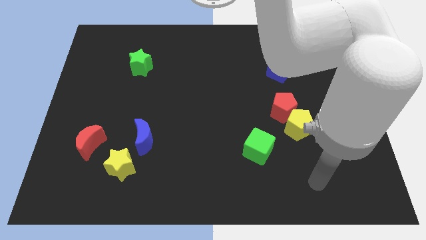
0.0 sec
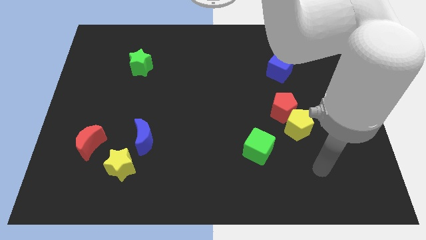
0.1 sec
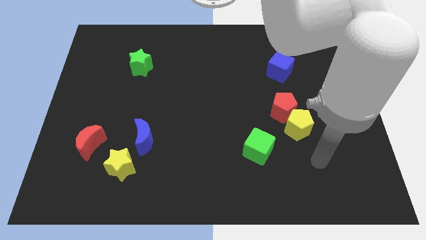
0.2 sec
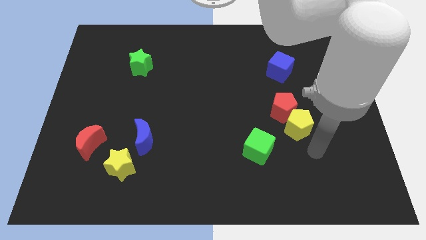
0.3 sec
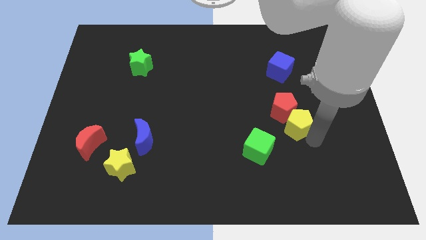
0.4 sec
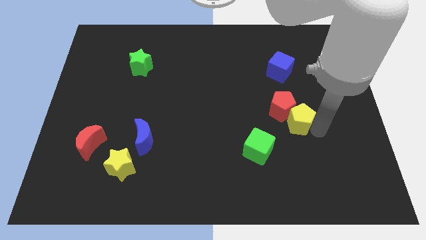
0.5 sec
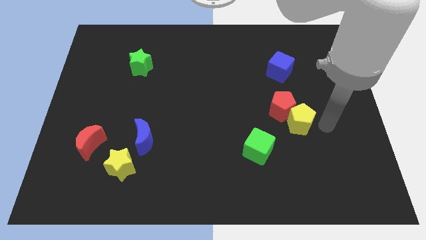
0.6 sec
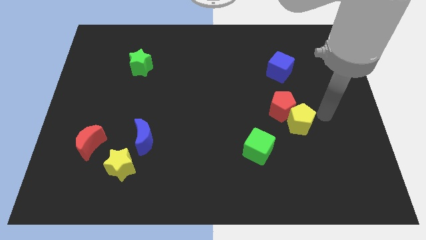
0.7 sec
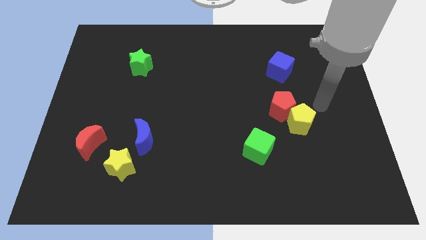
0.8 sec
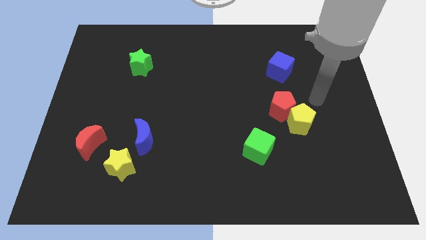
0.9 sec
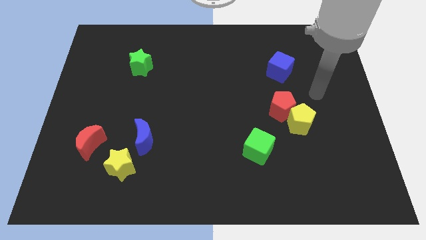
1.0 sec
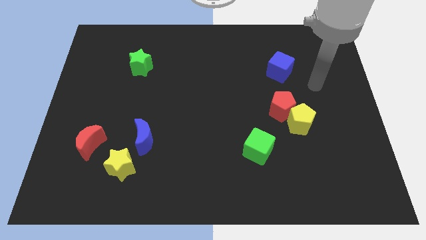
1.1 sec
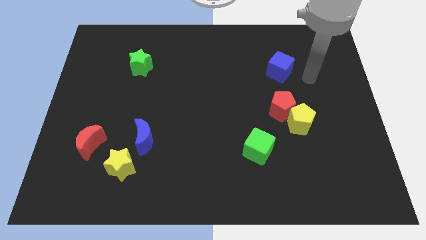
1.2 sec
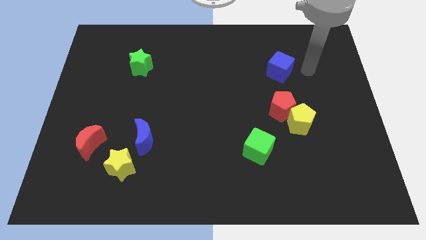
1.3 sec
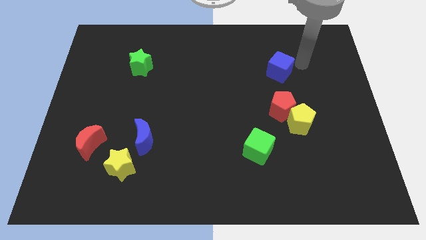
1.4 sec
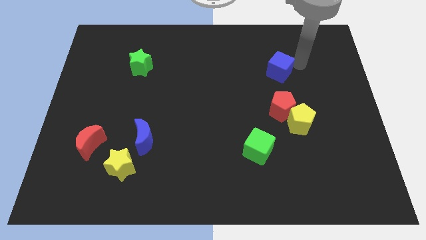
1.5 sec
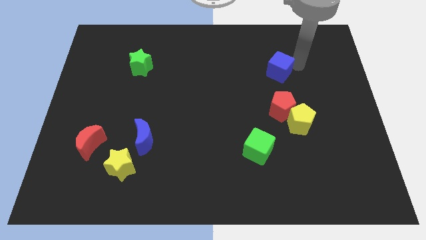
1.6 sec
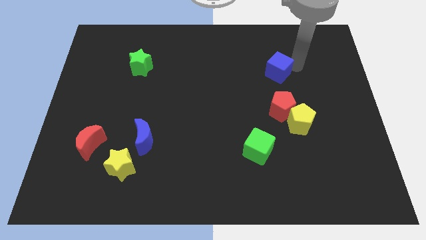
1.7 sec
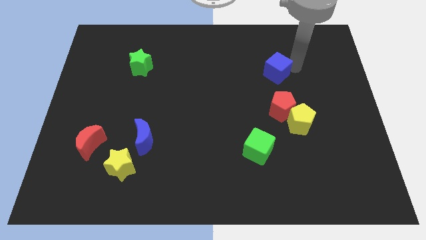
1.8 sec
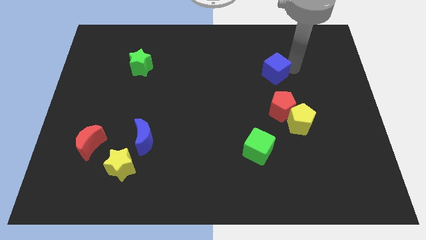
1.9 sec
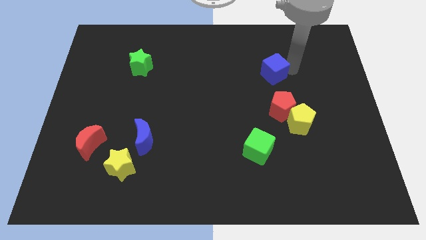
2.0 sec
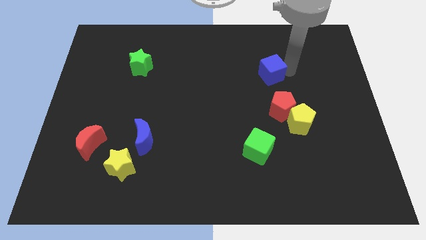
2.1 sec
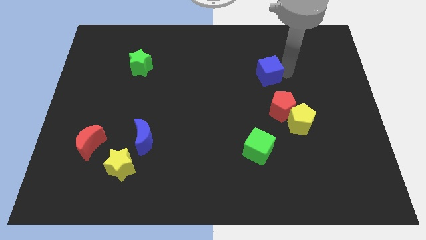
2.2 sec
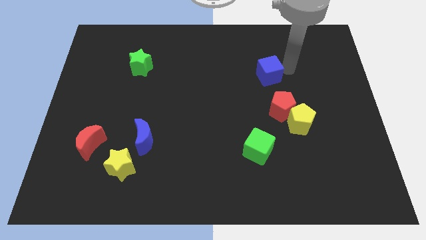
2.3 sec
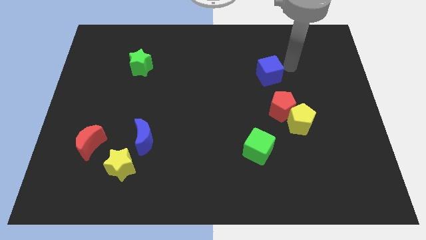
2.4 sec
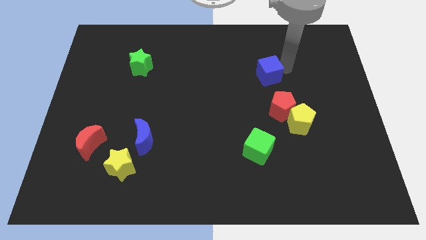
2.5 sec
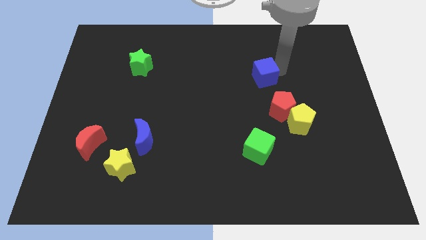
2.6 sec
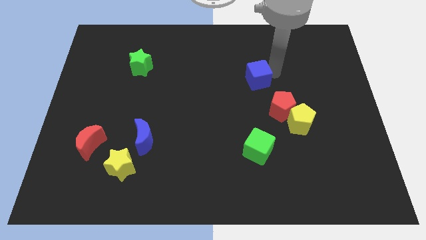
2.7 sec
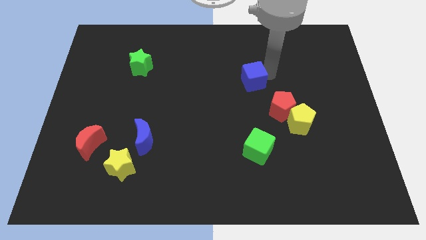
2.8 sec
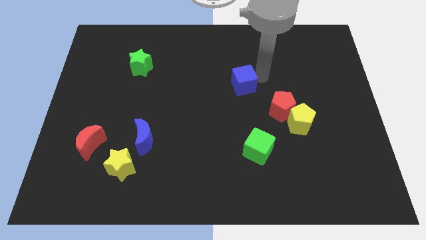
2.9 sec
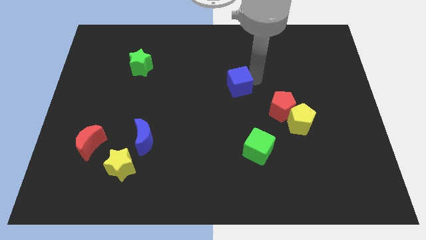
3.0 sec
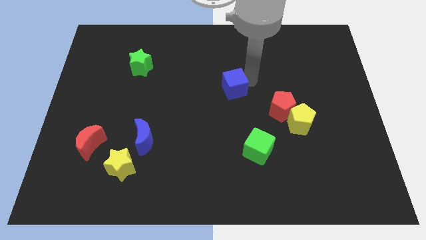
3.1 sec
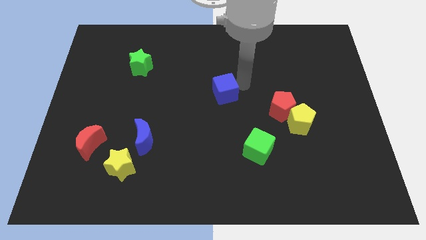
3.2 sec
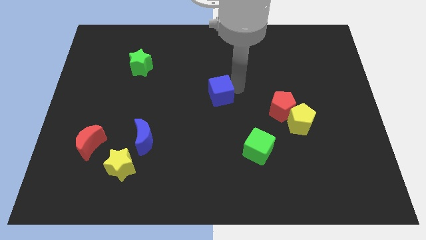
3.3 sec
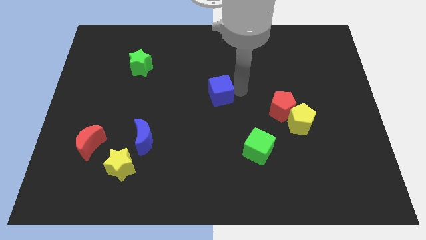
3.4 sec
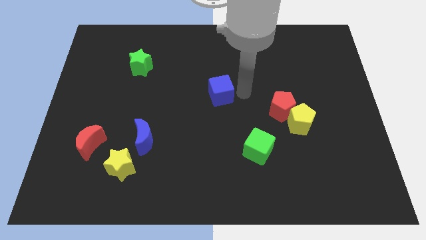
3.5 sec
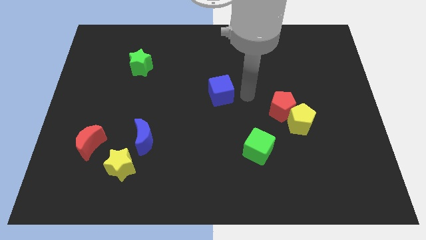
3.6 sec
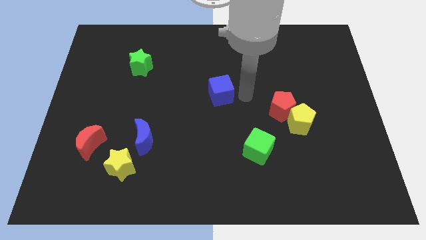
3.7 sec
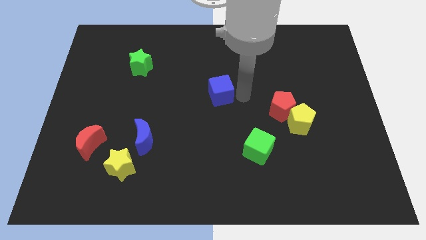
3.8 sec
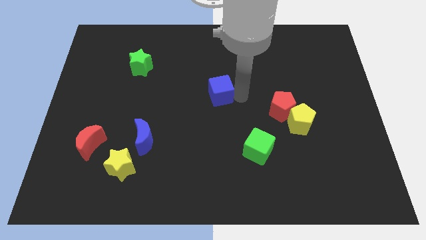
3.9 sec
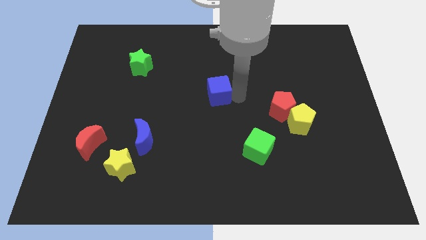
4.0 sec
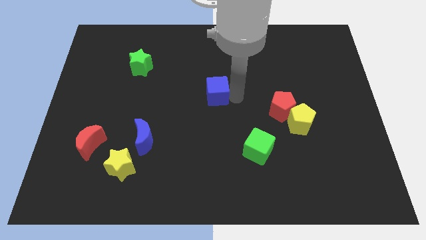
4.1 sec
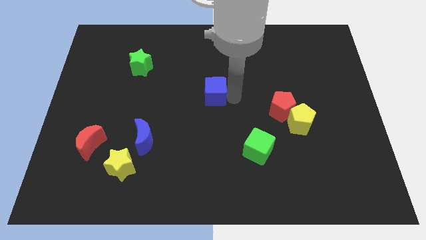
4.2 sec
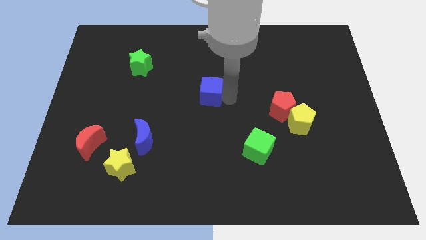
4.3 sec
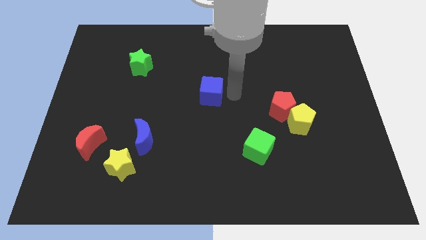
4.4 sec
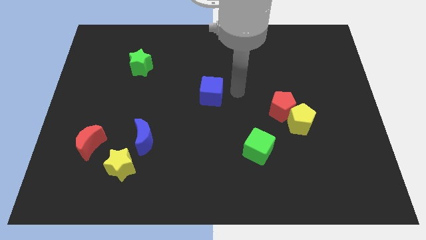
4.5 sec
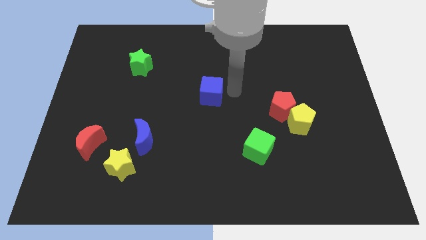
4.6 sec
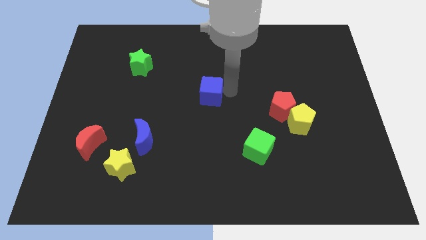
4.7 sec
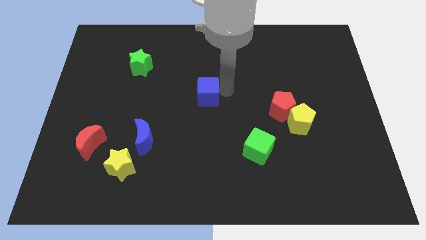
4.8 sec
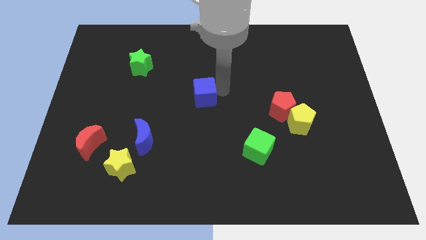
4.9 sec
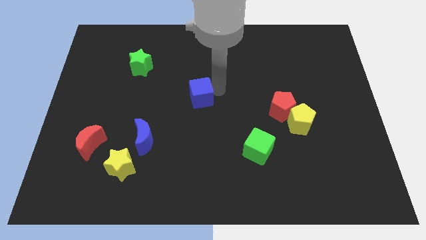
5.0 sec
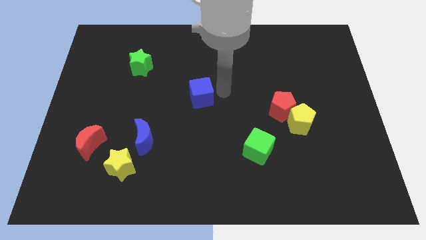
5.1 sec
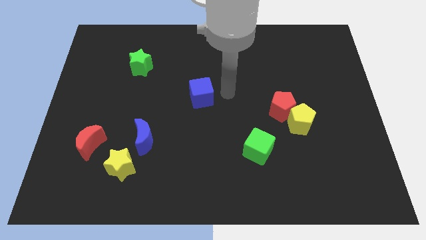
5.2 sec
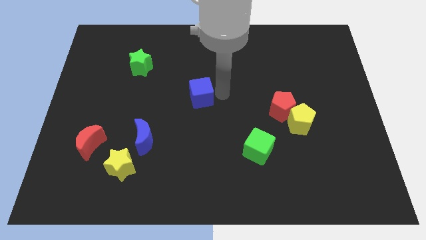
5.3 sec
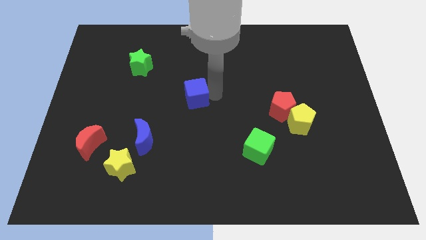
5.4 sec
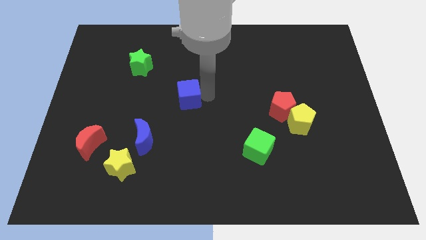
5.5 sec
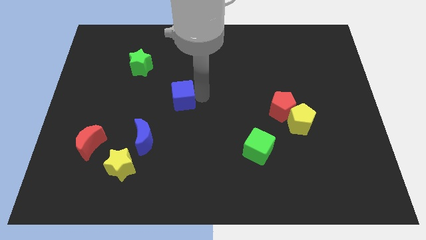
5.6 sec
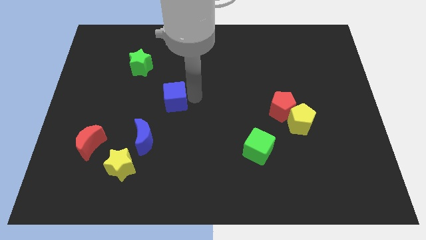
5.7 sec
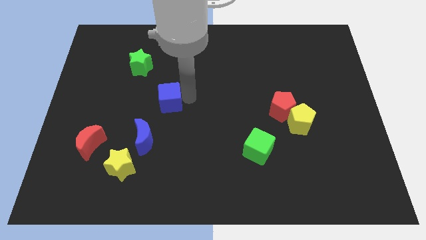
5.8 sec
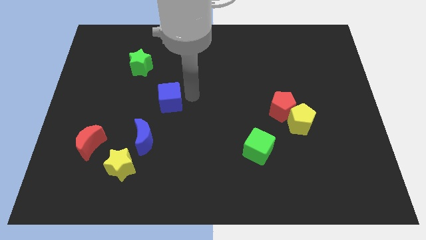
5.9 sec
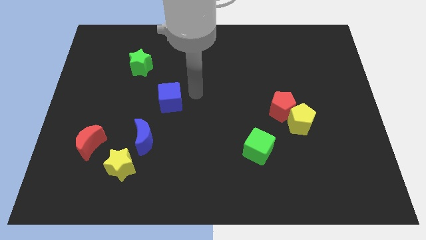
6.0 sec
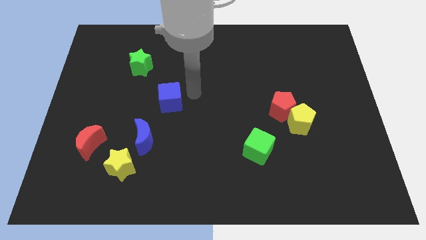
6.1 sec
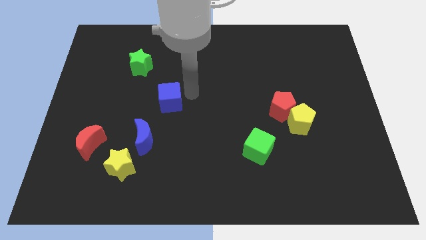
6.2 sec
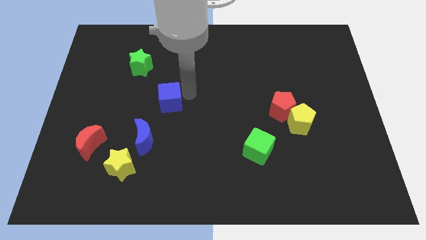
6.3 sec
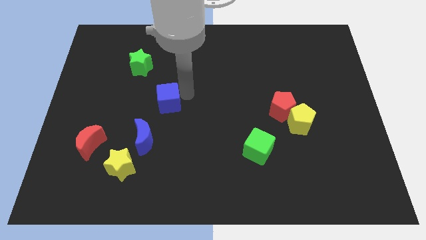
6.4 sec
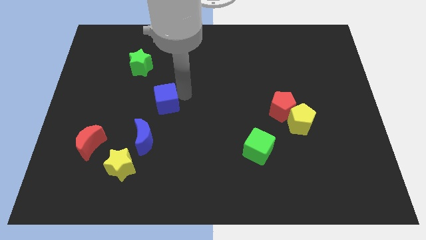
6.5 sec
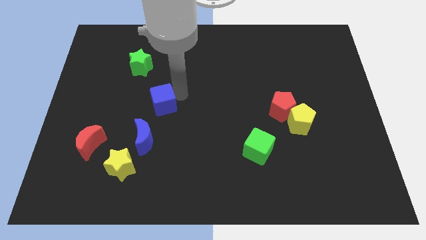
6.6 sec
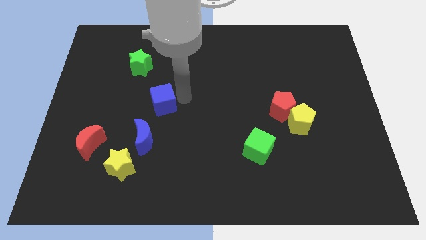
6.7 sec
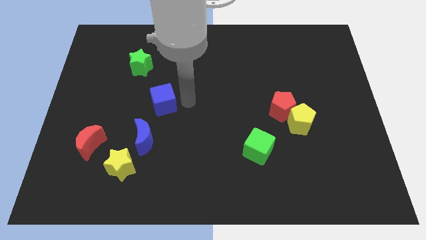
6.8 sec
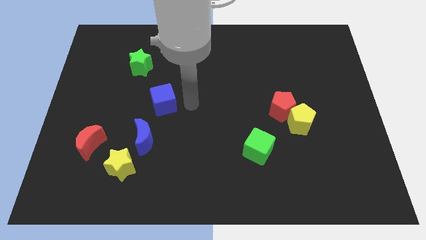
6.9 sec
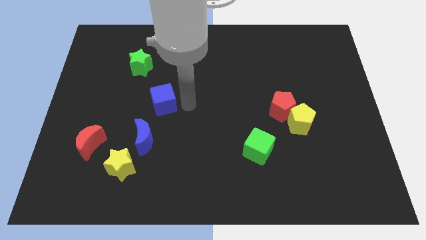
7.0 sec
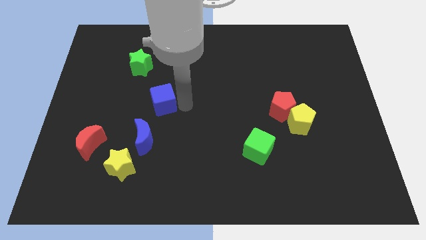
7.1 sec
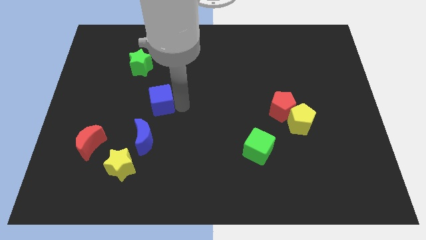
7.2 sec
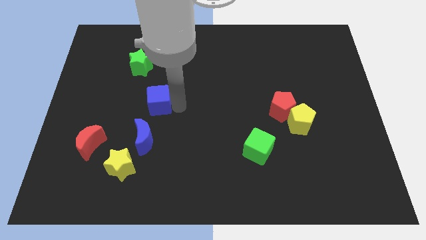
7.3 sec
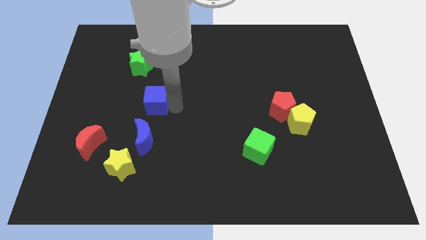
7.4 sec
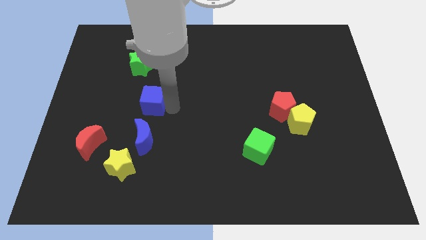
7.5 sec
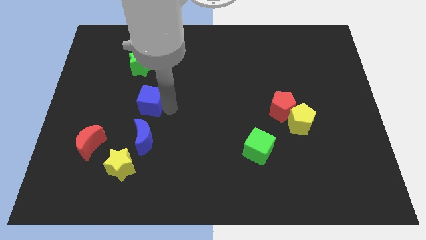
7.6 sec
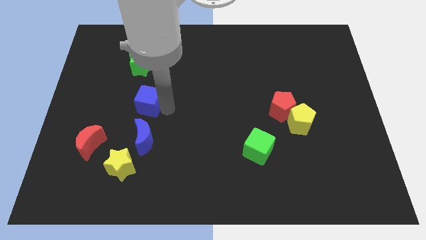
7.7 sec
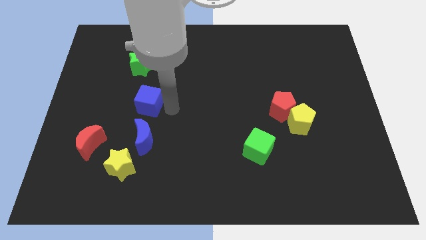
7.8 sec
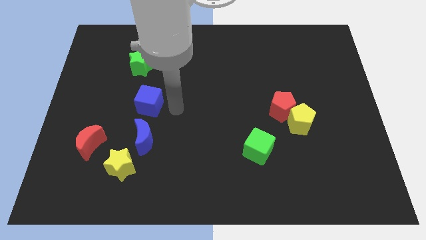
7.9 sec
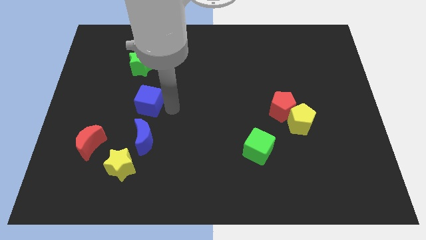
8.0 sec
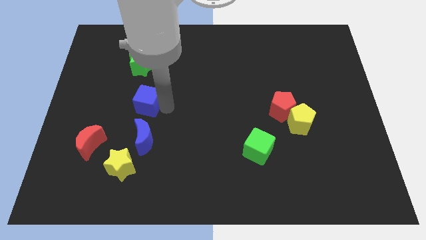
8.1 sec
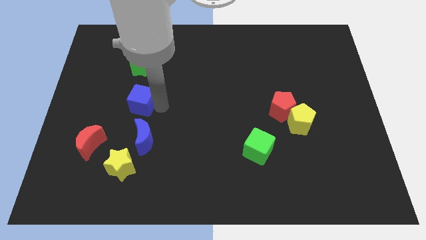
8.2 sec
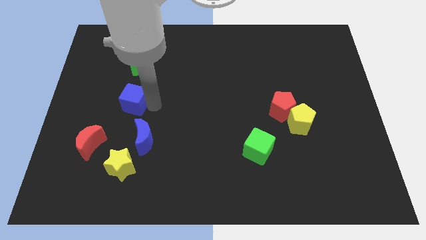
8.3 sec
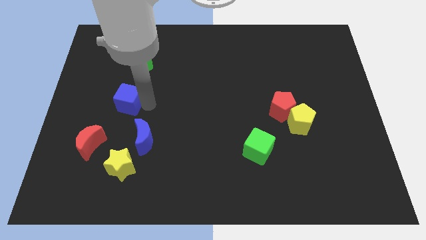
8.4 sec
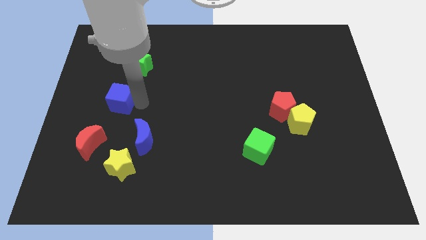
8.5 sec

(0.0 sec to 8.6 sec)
move the blue cube to the top side of the red moon
